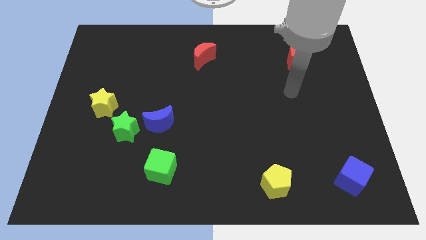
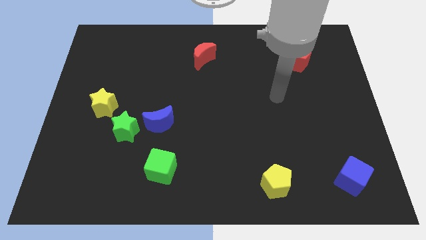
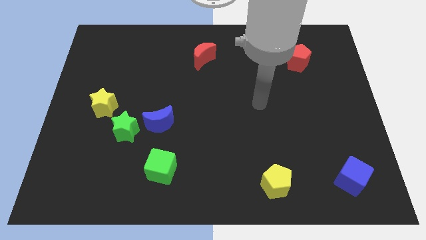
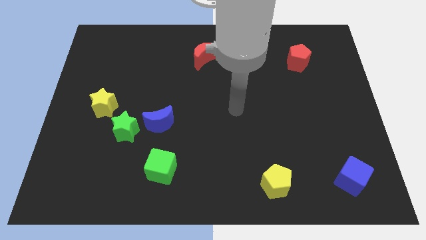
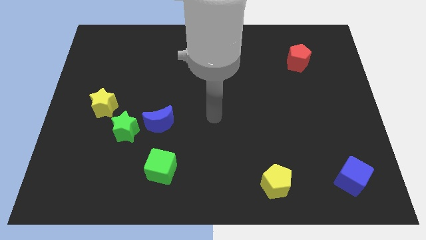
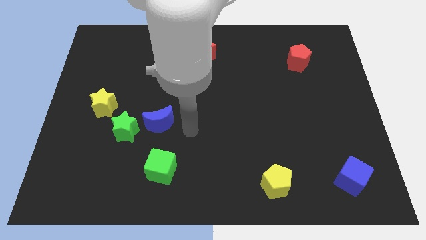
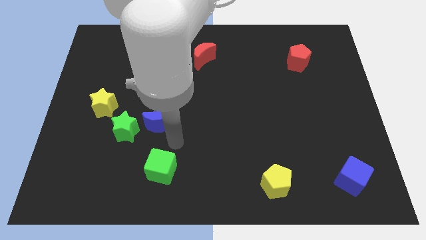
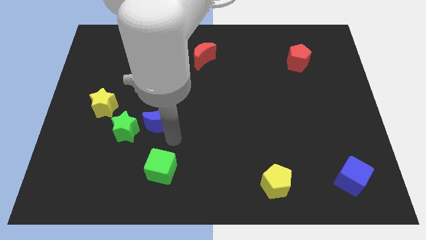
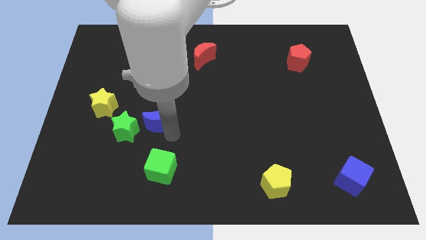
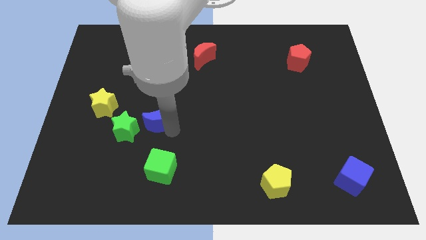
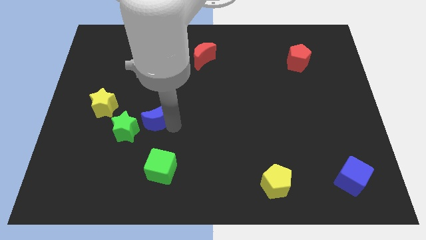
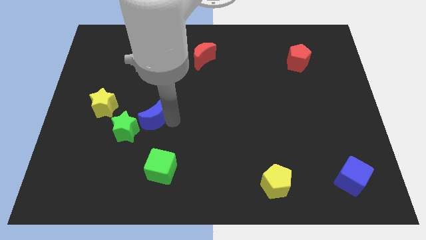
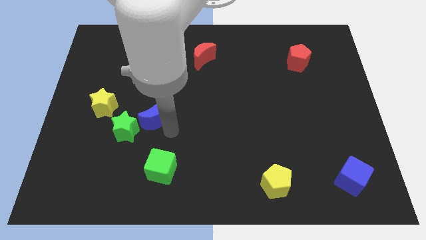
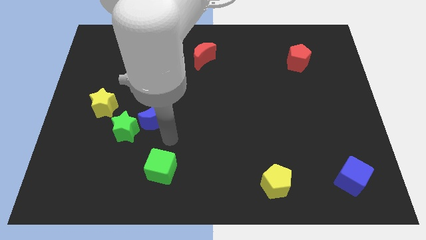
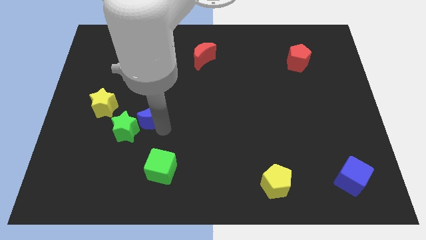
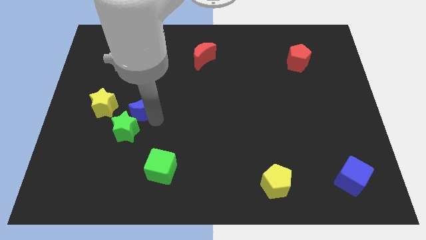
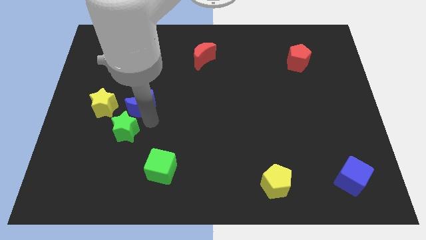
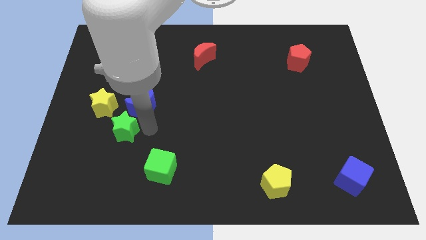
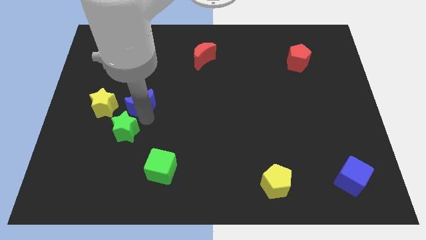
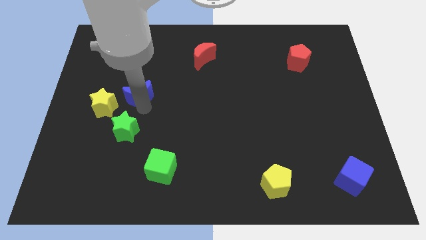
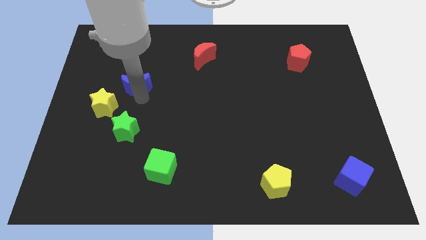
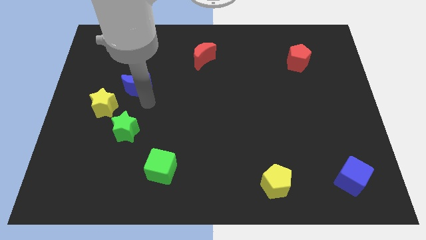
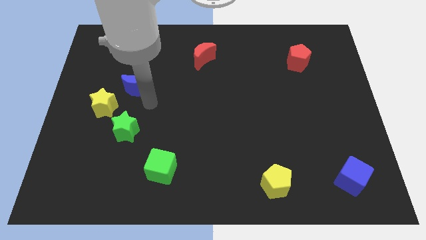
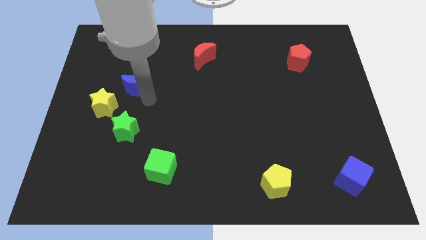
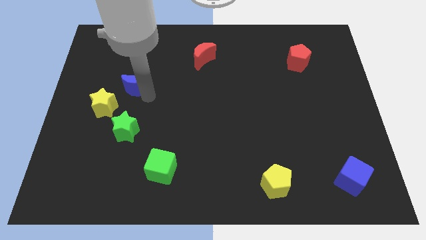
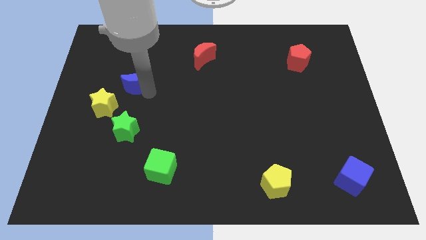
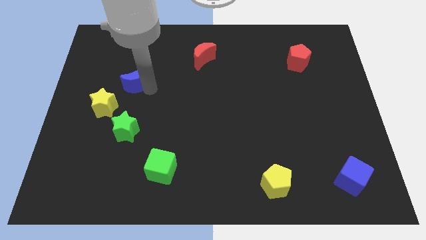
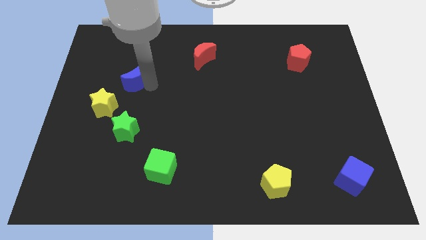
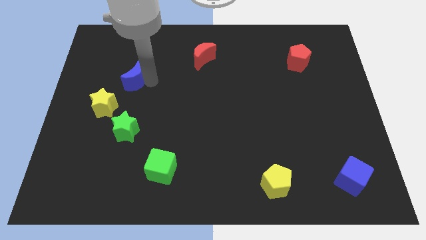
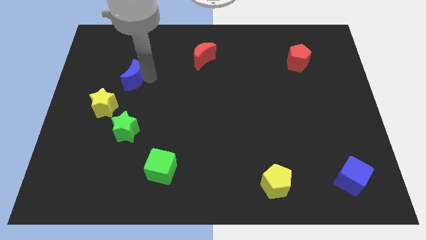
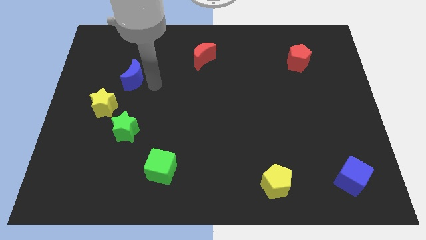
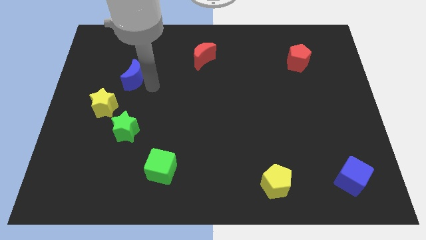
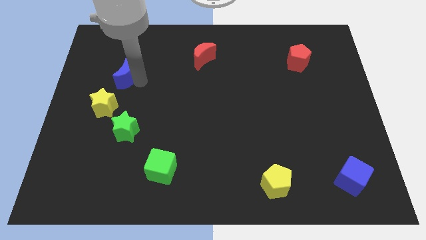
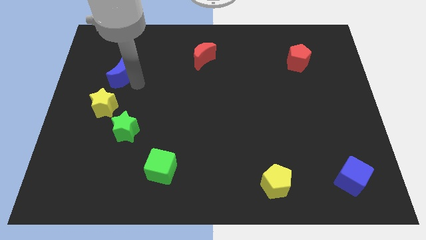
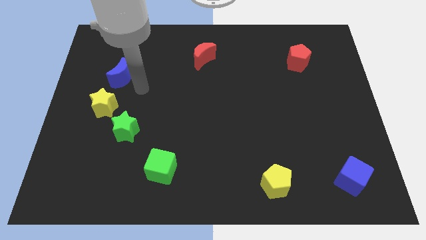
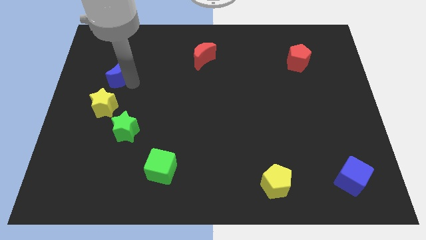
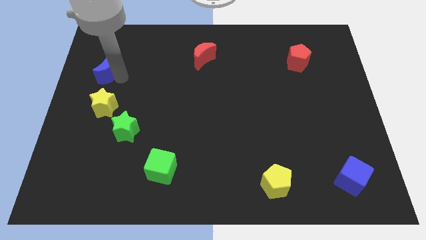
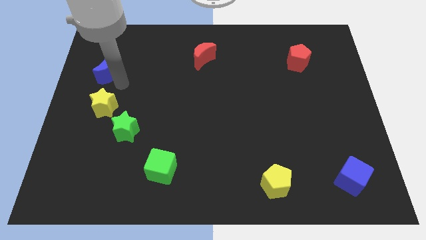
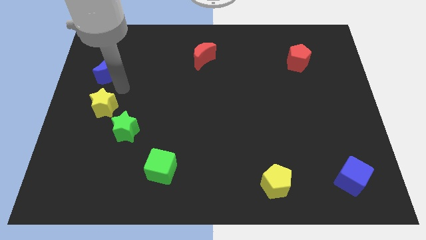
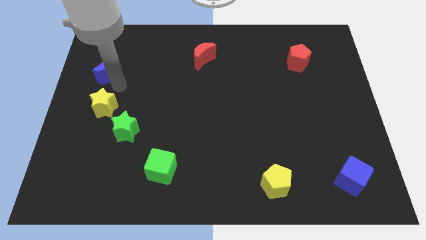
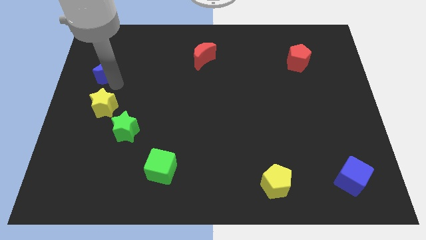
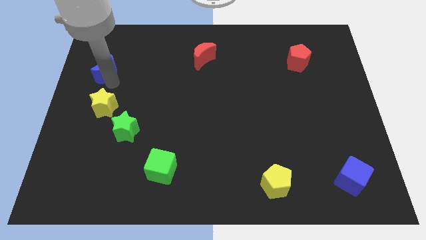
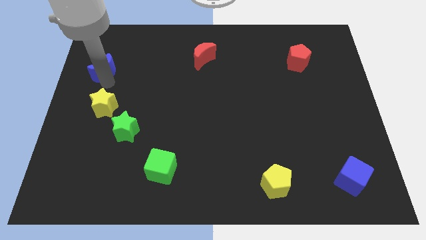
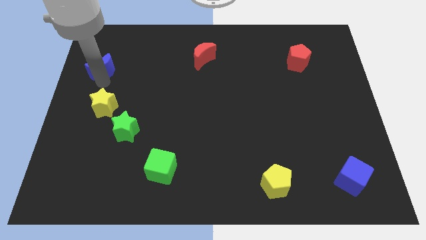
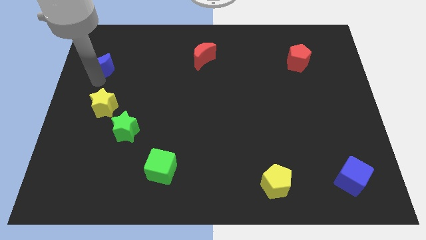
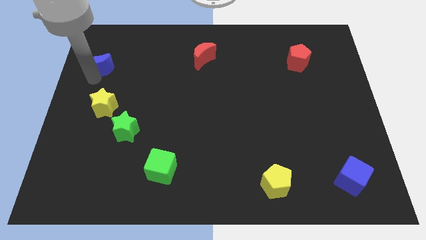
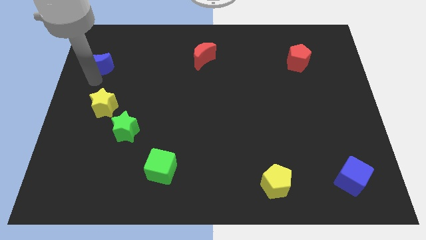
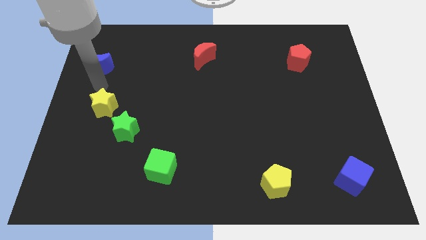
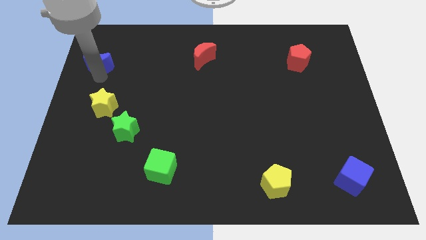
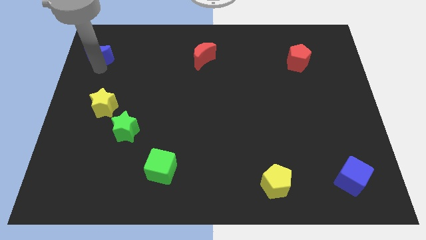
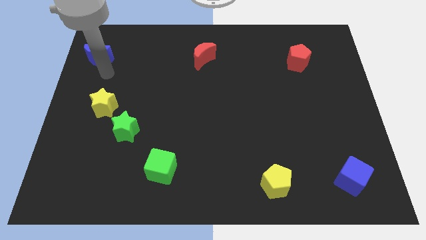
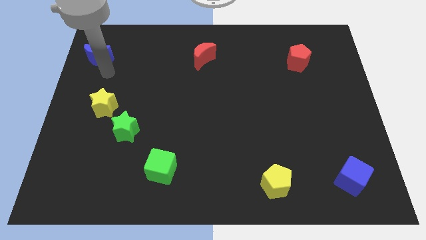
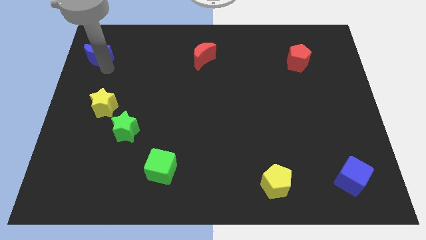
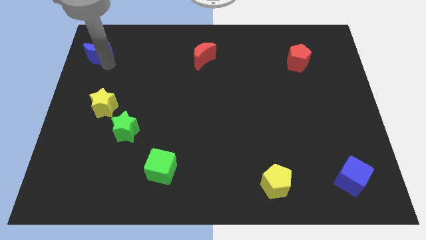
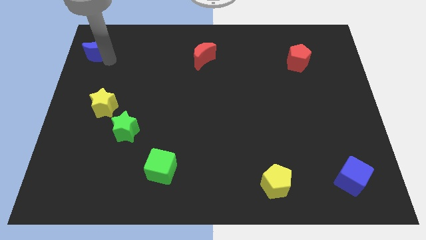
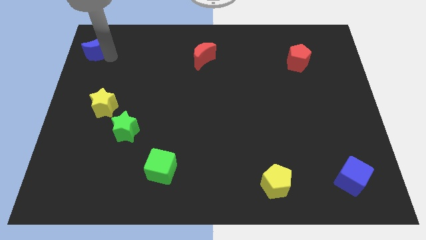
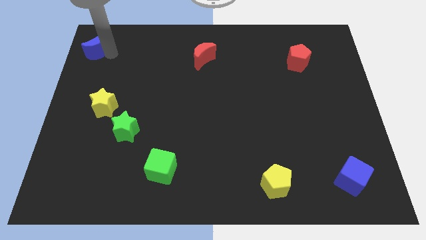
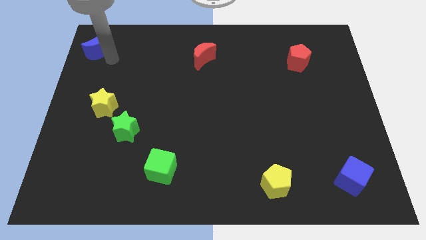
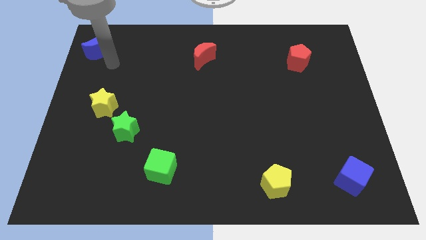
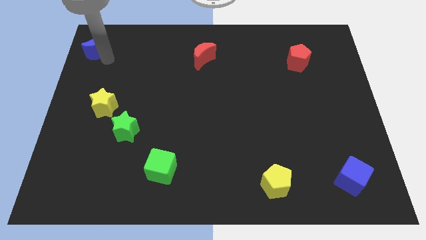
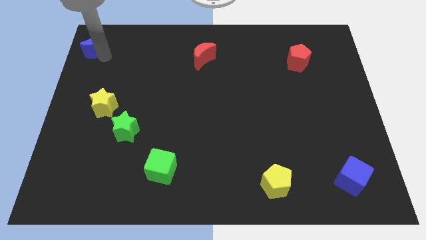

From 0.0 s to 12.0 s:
put the blue moon to the upper left corner

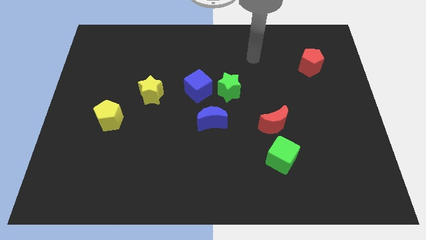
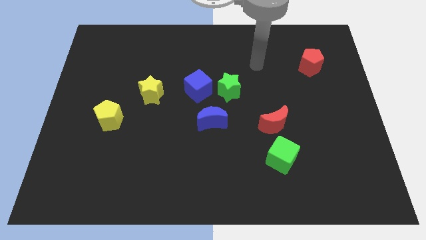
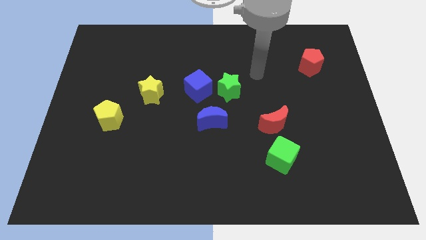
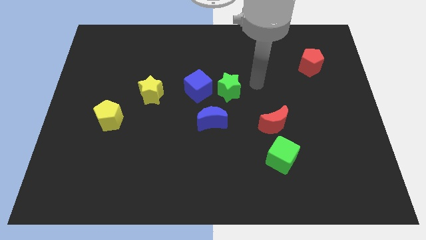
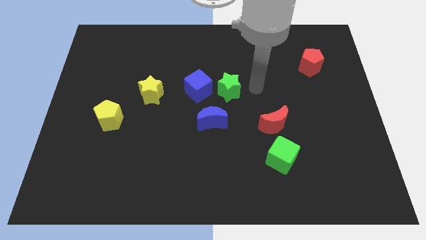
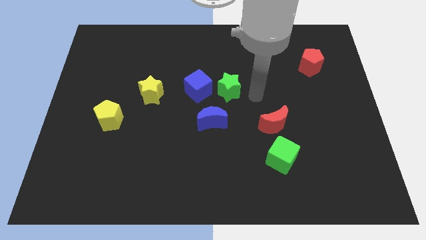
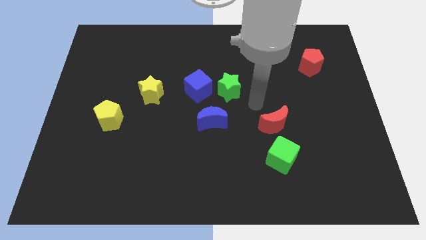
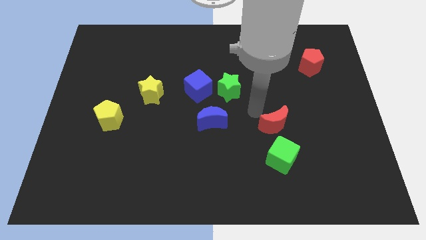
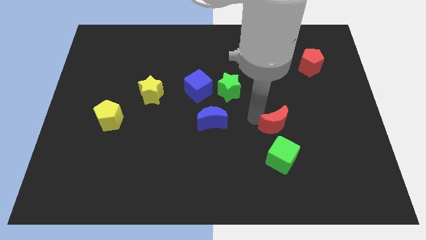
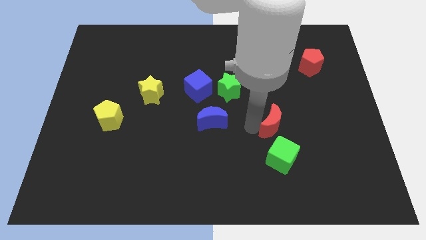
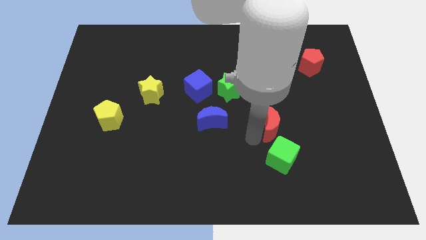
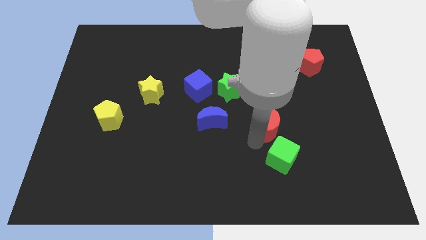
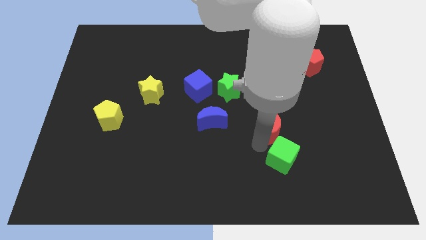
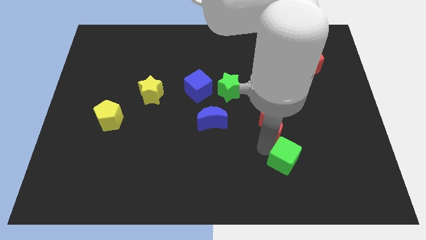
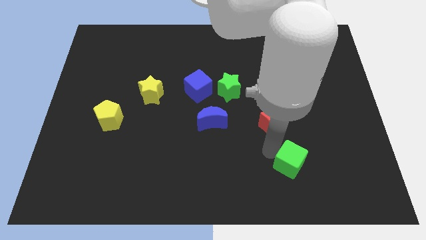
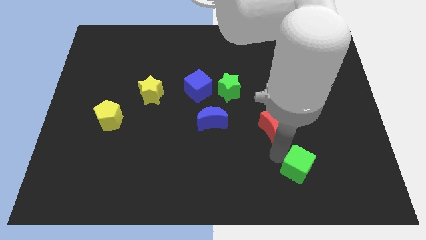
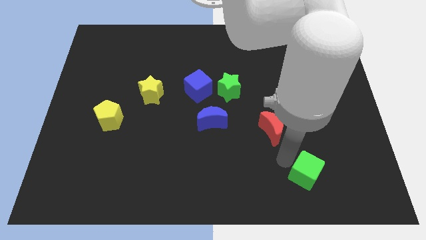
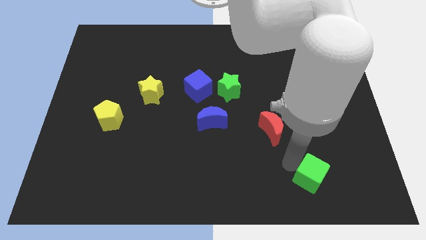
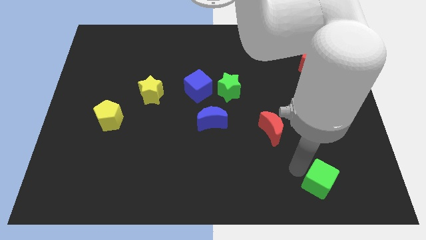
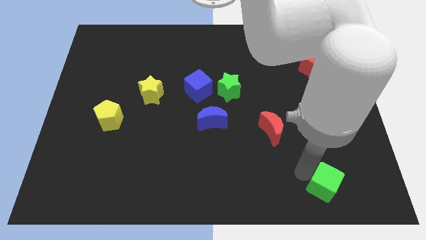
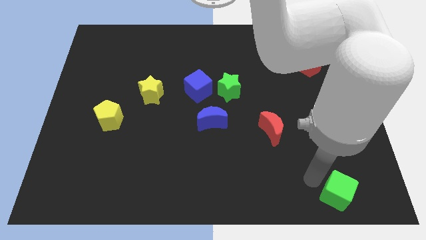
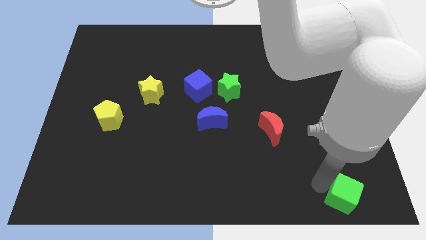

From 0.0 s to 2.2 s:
slide the green cube to the bottom right
